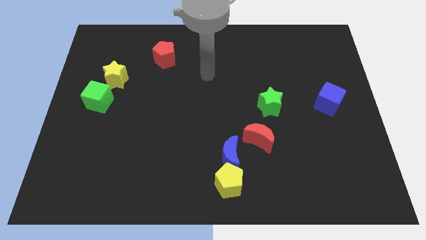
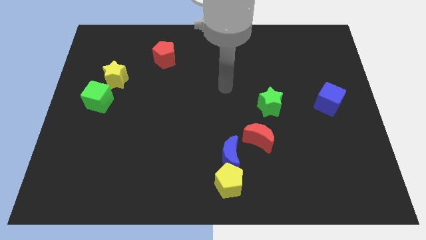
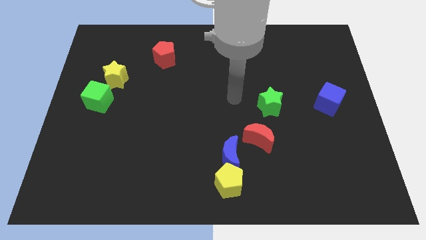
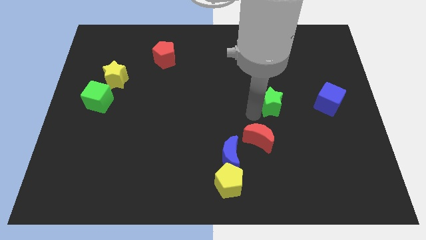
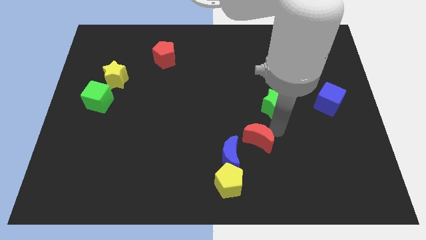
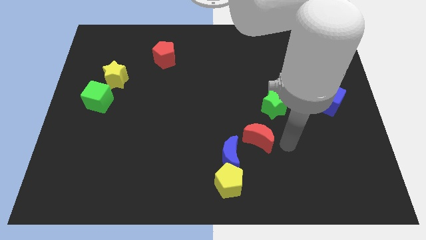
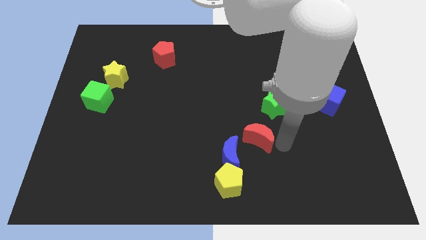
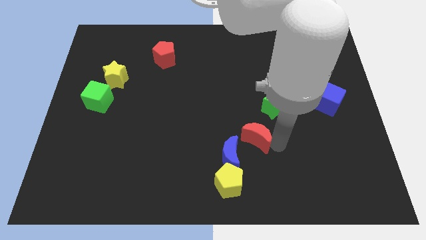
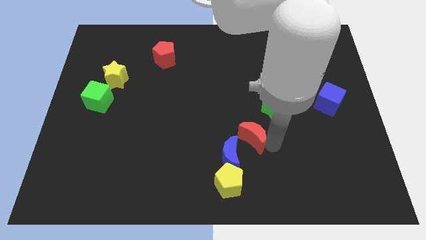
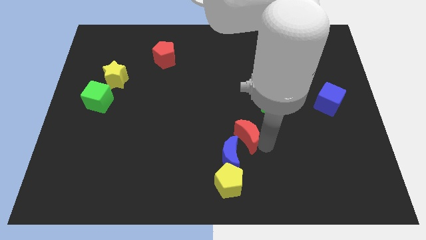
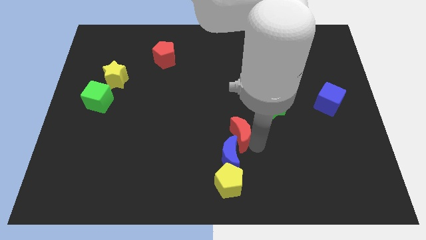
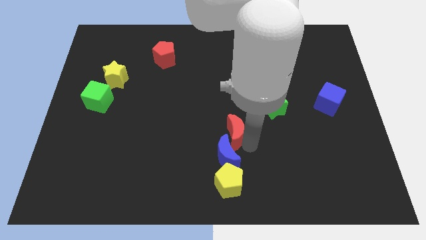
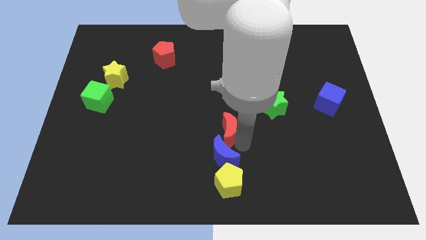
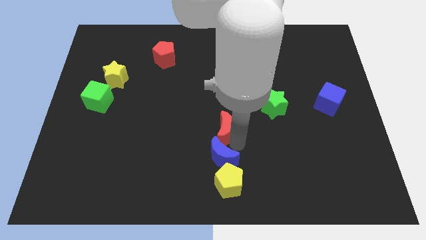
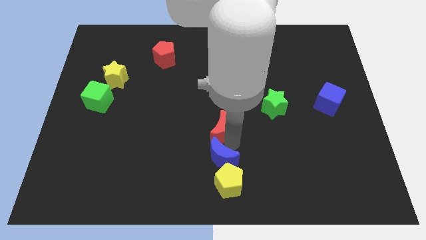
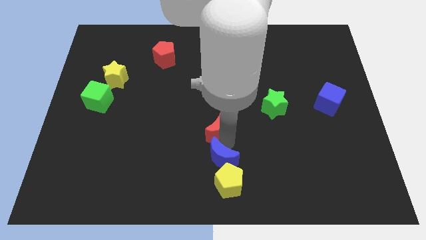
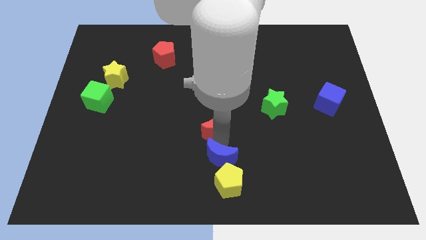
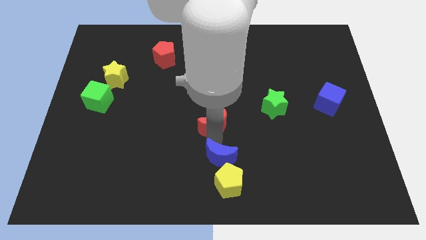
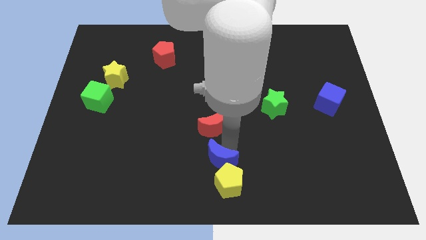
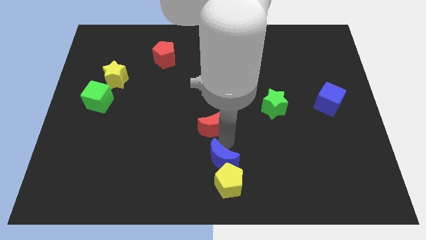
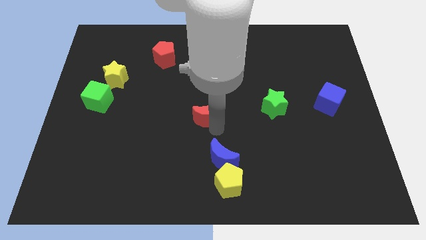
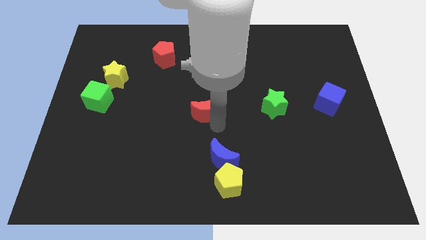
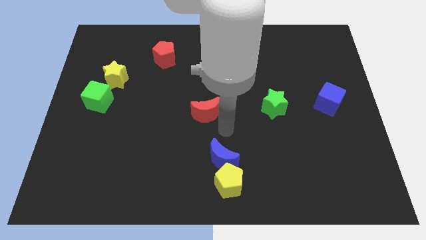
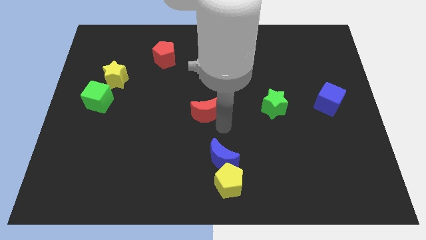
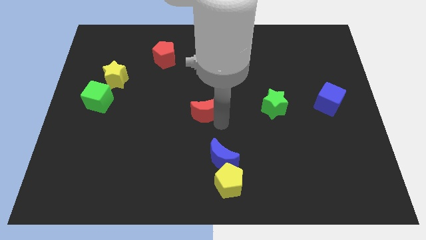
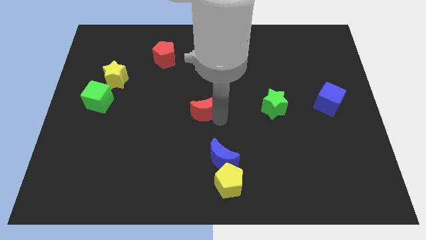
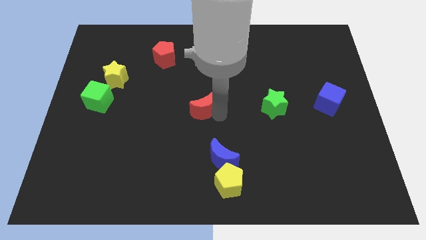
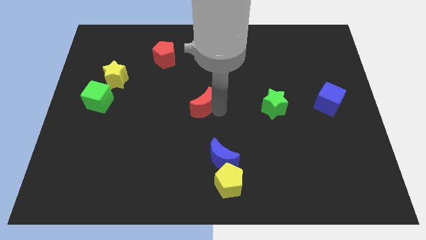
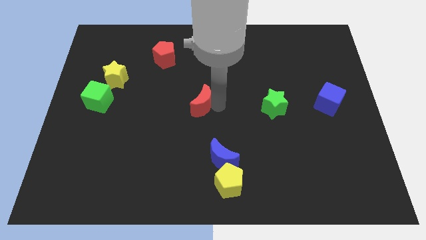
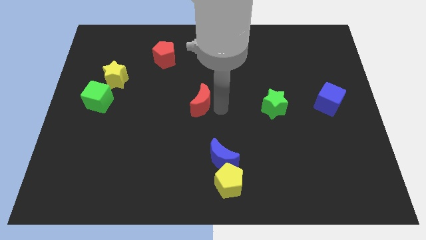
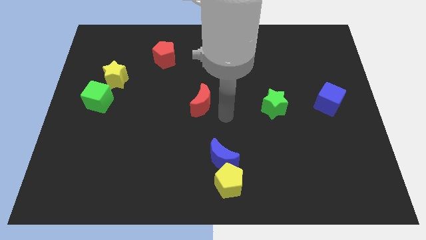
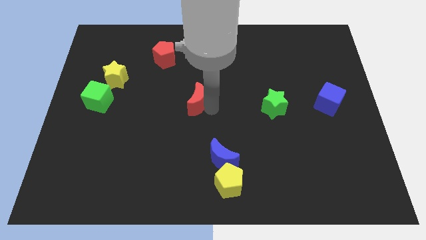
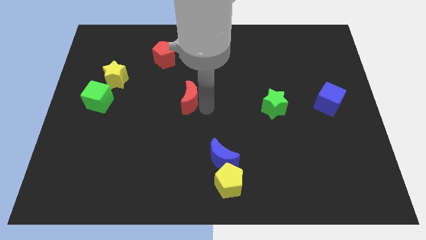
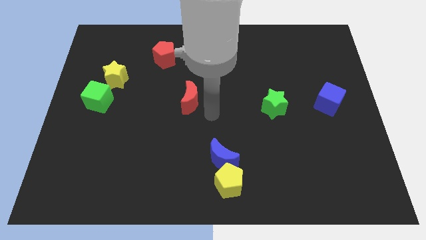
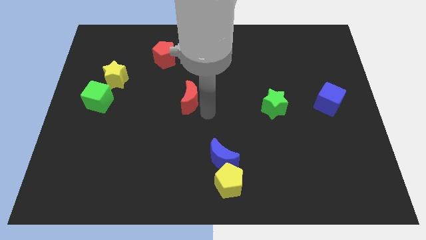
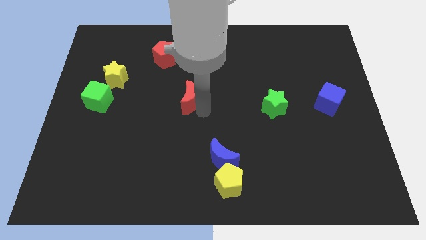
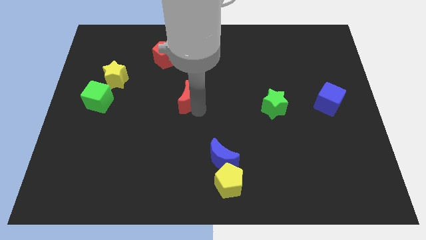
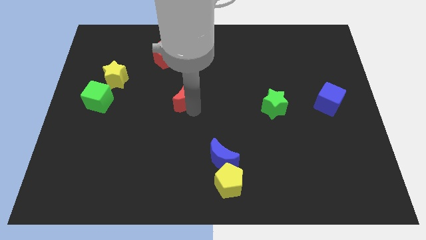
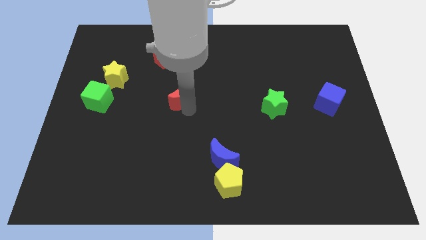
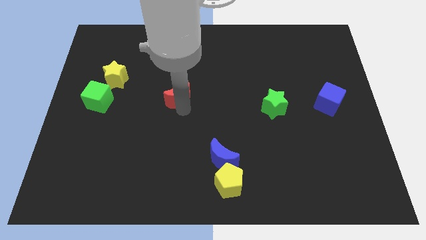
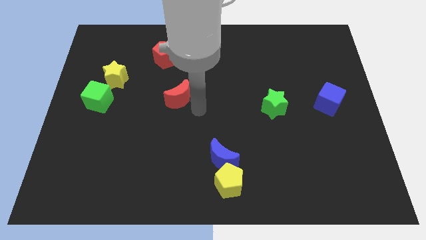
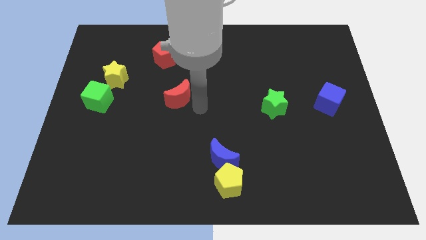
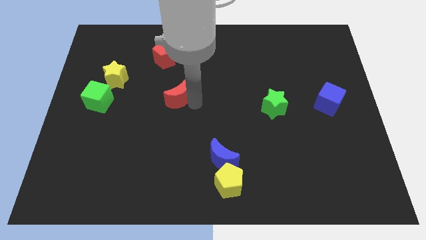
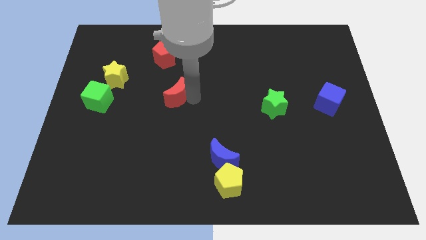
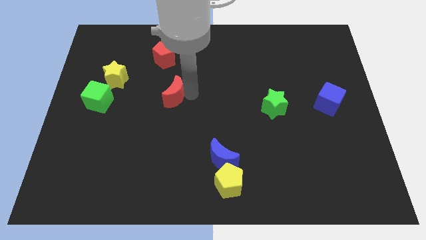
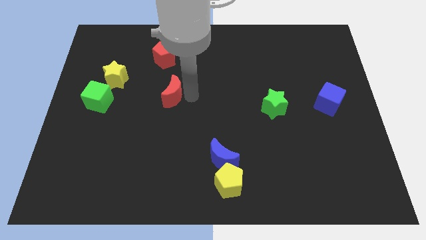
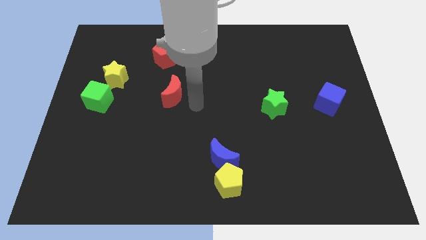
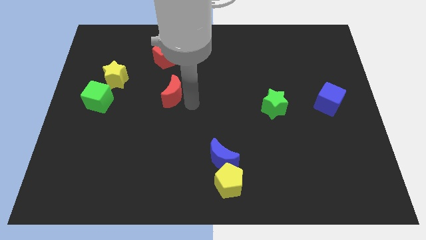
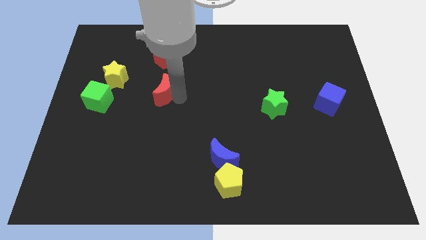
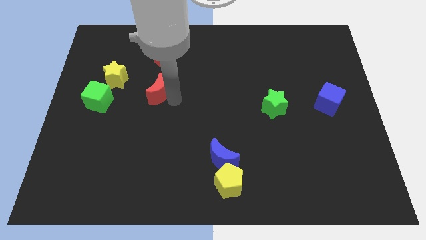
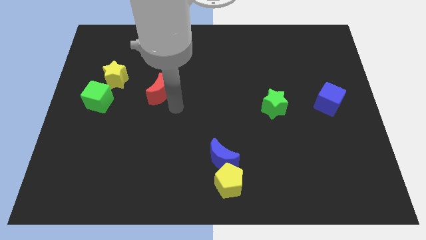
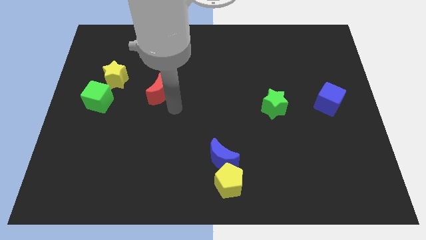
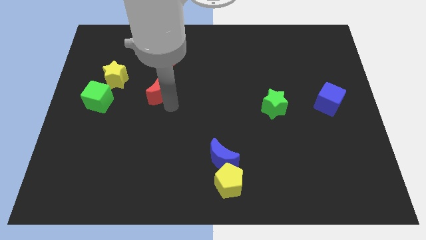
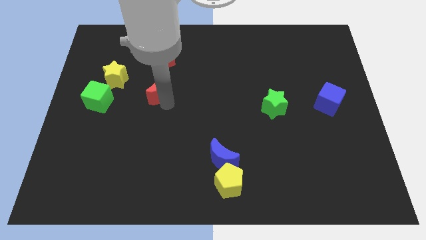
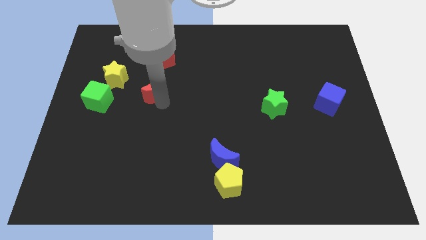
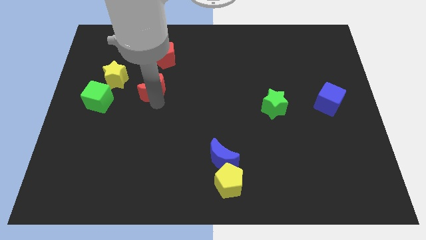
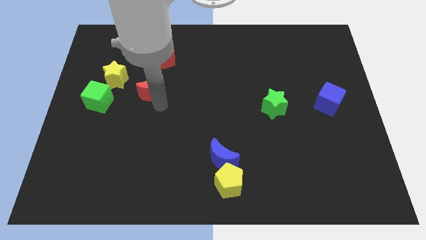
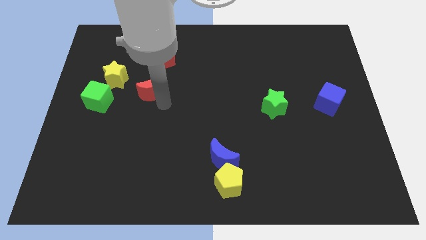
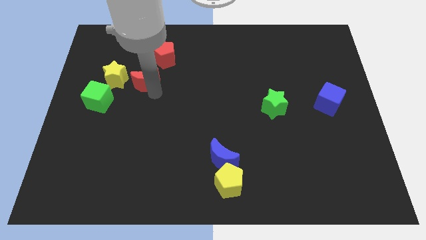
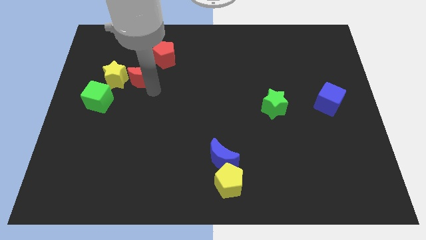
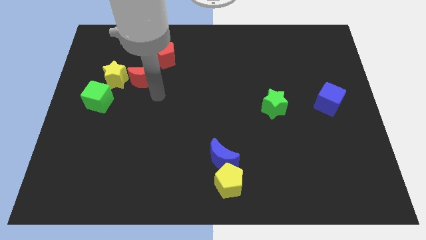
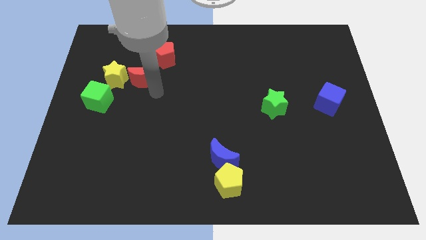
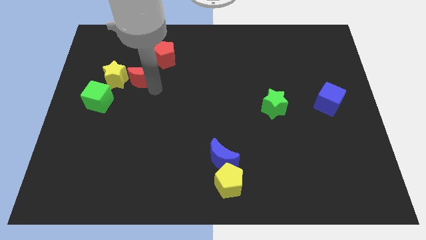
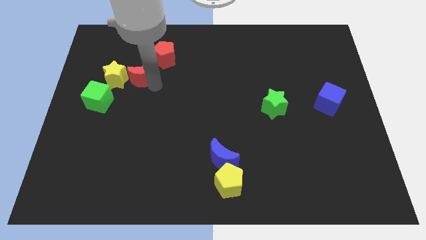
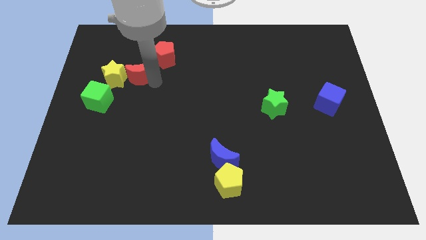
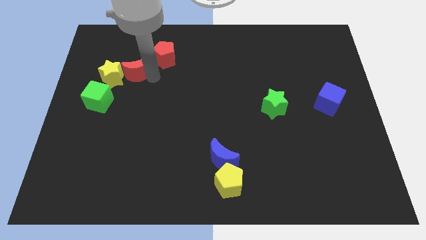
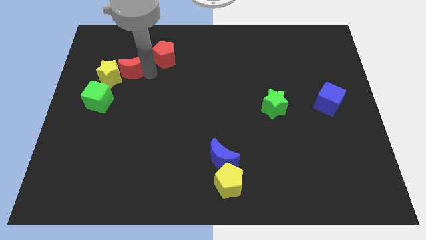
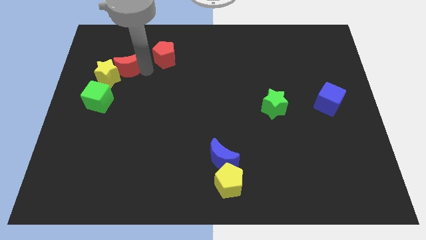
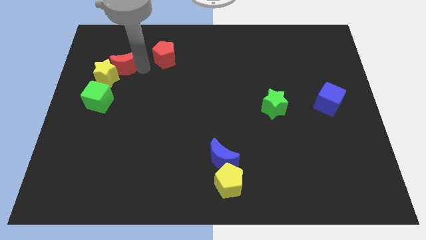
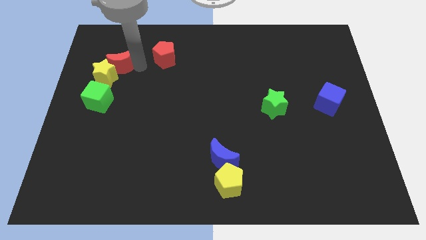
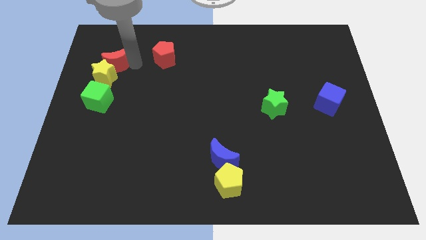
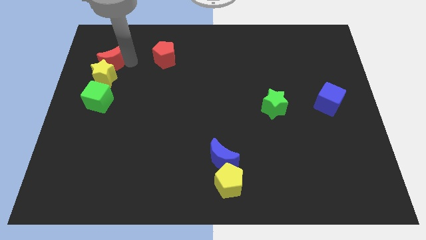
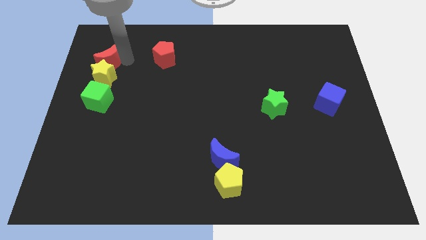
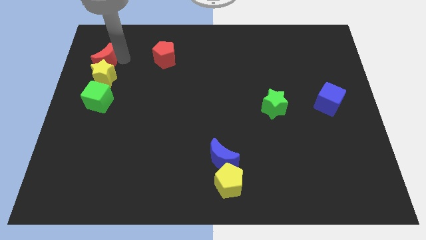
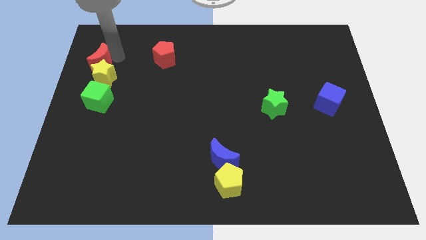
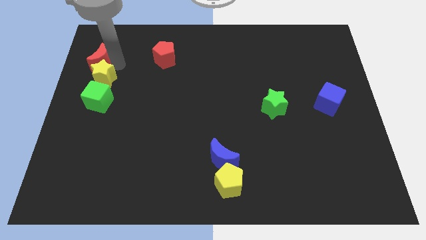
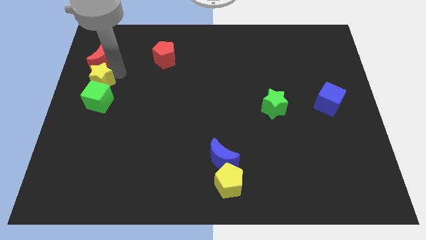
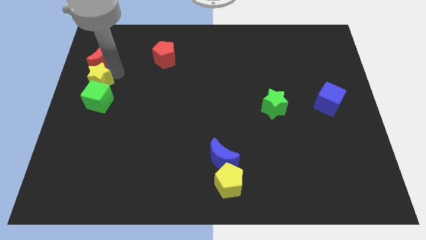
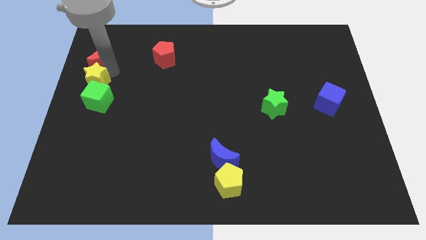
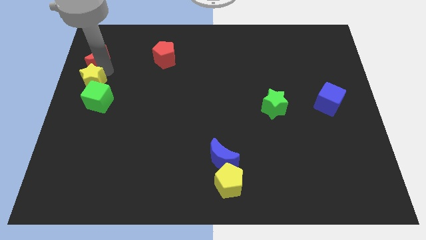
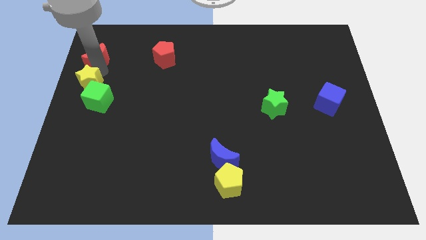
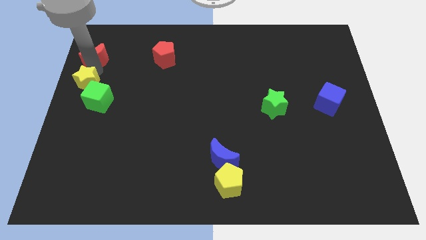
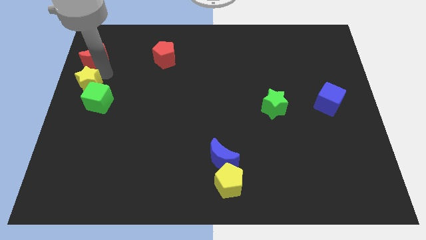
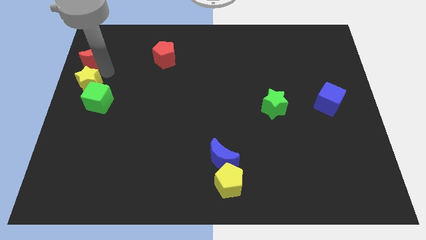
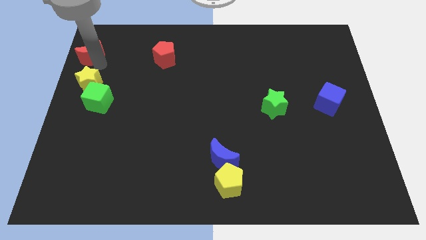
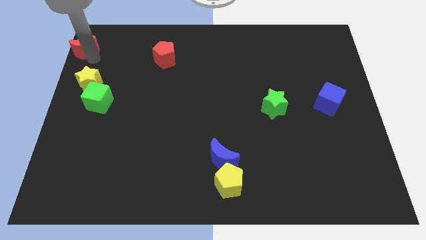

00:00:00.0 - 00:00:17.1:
put the red moon to the top left corner
